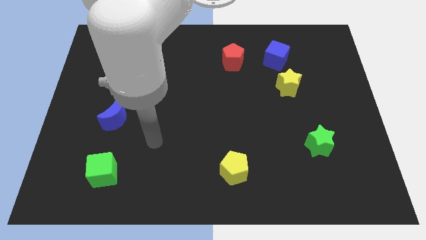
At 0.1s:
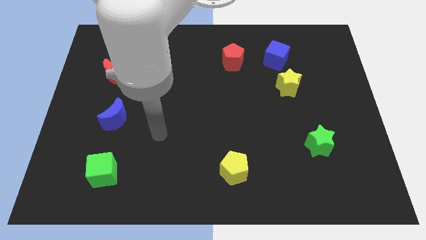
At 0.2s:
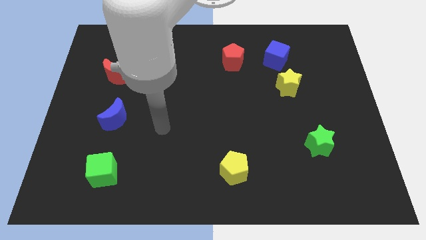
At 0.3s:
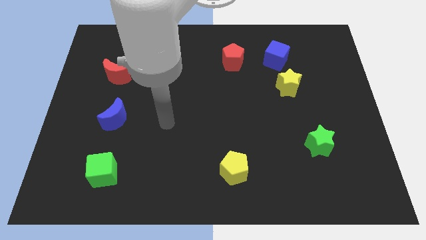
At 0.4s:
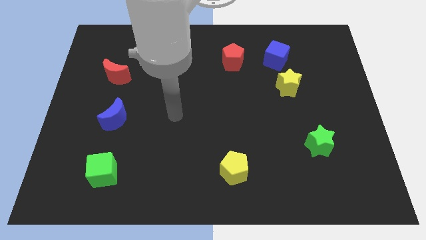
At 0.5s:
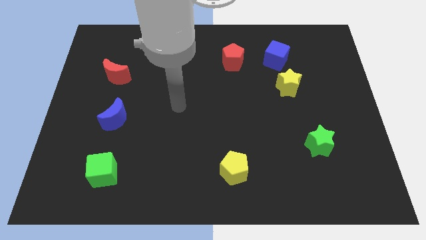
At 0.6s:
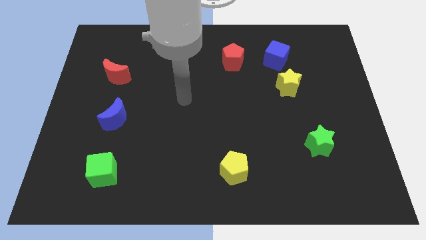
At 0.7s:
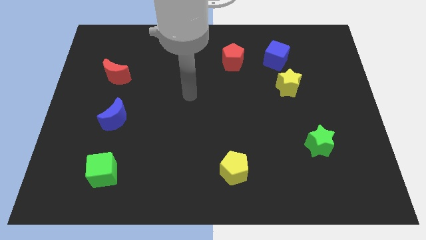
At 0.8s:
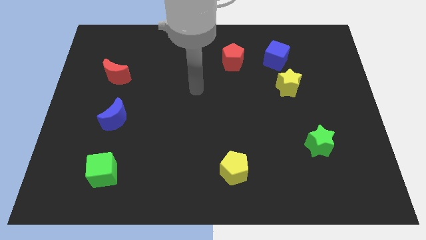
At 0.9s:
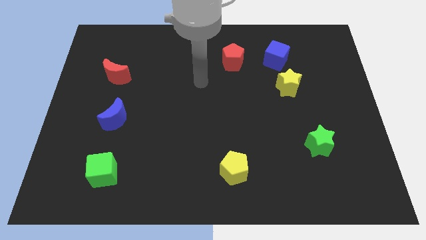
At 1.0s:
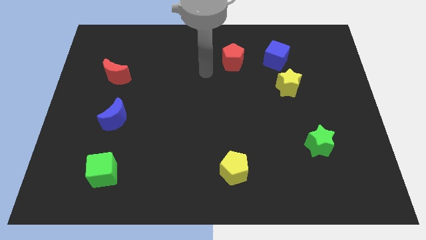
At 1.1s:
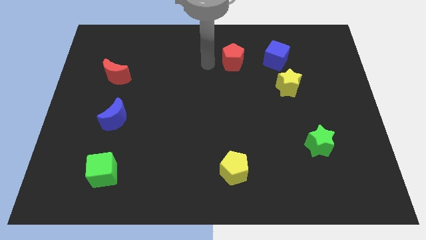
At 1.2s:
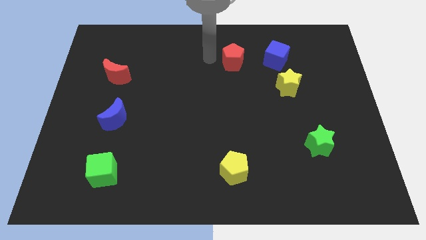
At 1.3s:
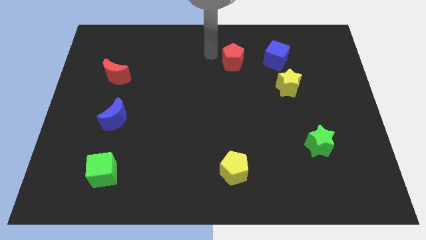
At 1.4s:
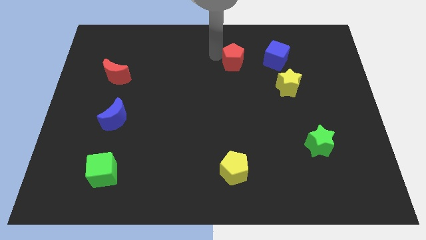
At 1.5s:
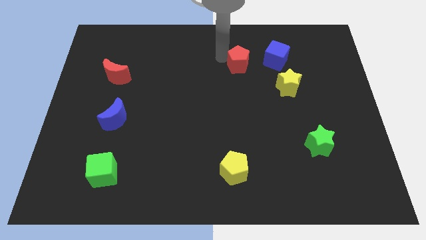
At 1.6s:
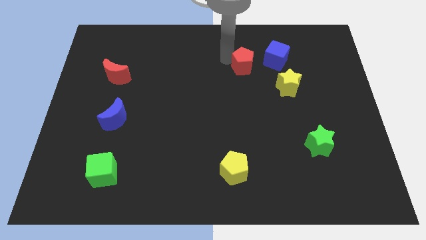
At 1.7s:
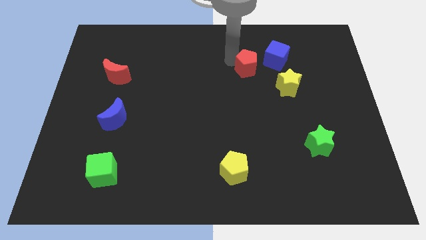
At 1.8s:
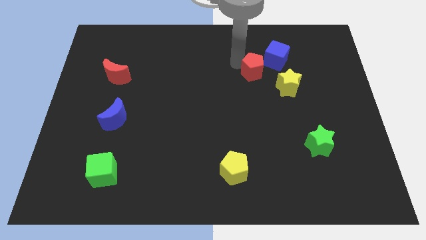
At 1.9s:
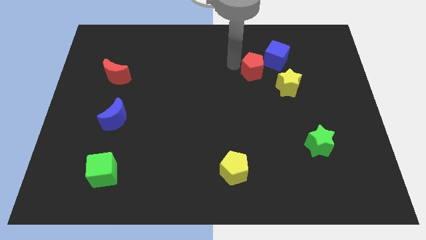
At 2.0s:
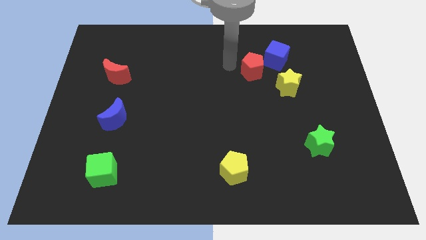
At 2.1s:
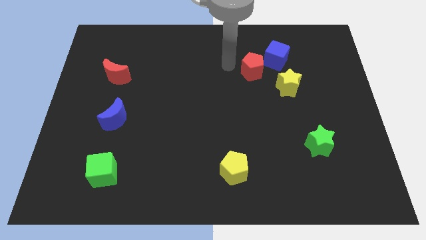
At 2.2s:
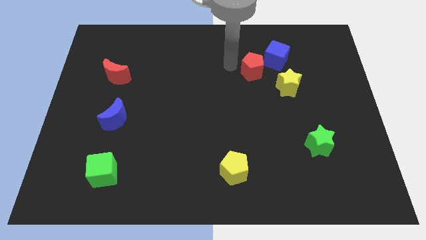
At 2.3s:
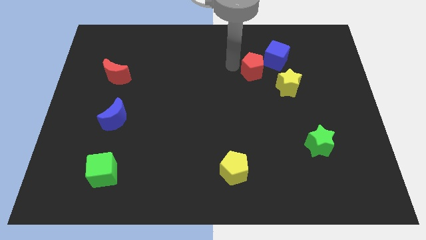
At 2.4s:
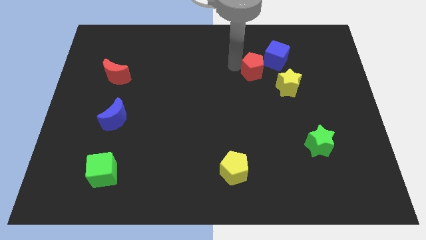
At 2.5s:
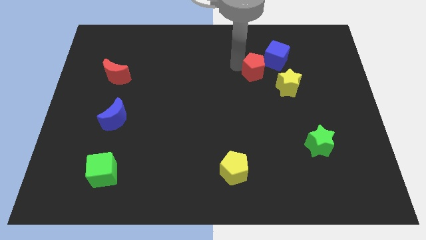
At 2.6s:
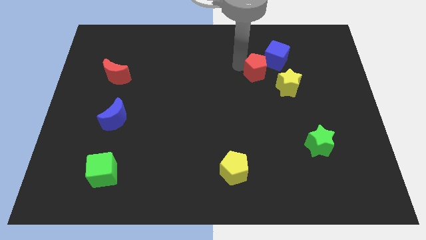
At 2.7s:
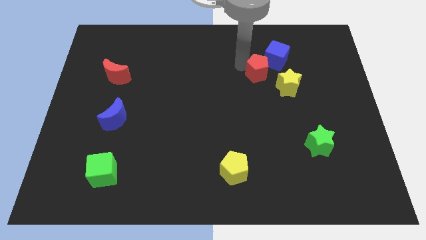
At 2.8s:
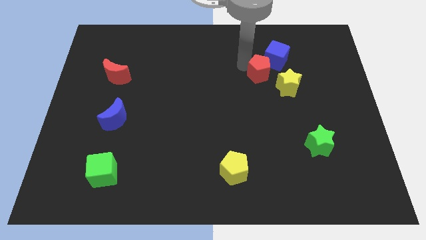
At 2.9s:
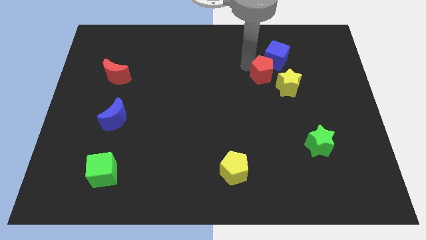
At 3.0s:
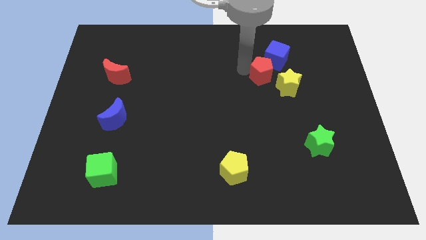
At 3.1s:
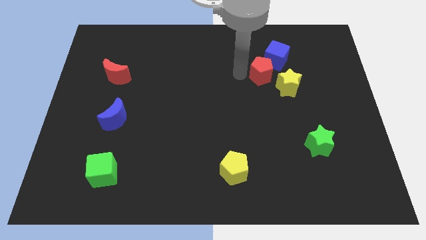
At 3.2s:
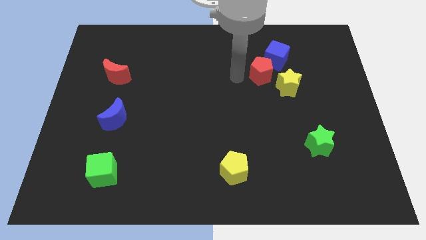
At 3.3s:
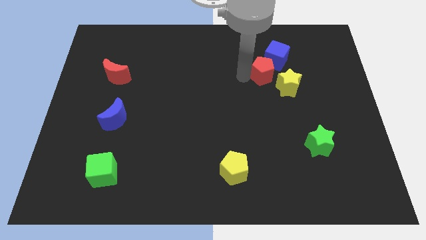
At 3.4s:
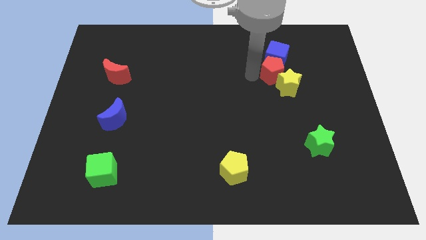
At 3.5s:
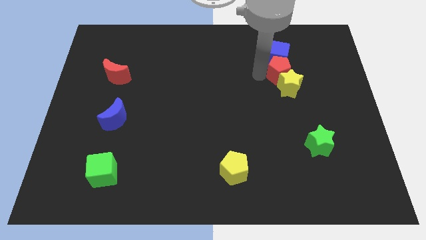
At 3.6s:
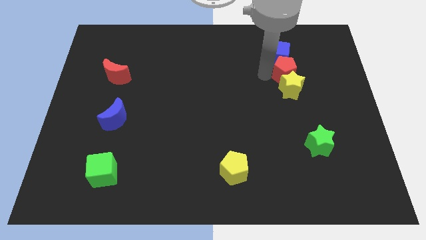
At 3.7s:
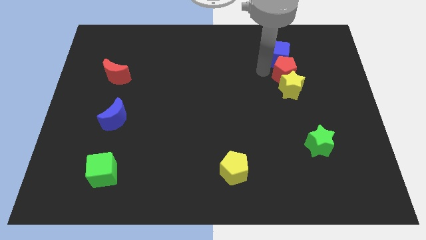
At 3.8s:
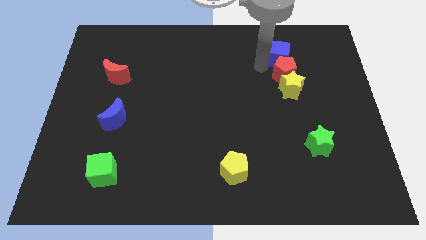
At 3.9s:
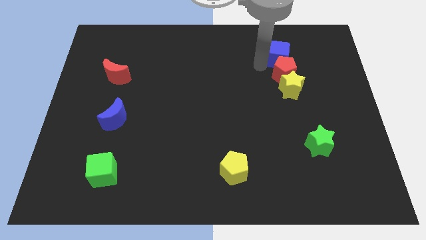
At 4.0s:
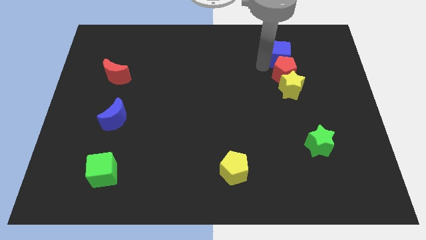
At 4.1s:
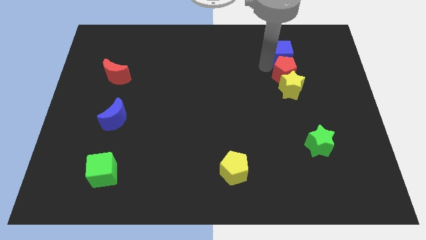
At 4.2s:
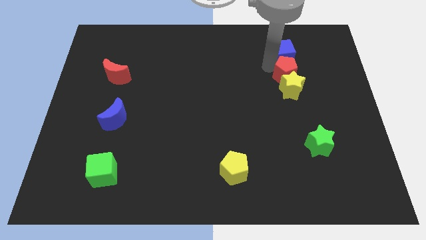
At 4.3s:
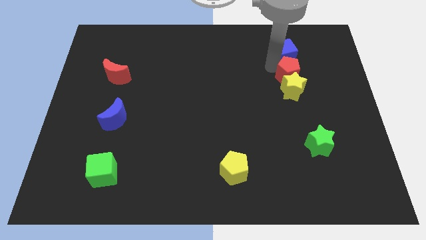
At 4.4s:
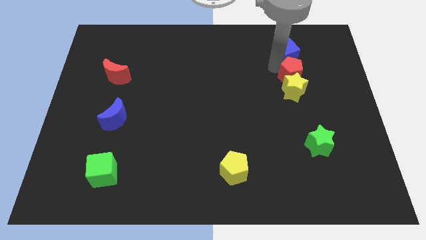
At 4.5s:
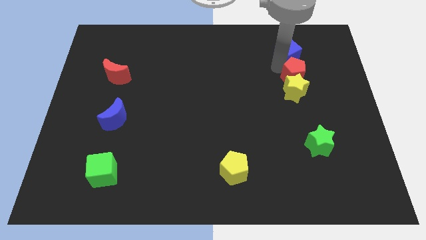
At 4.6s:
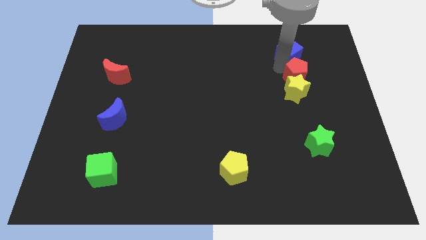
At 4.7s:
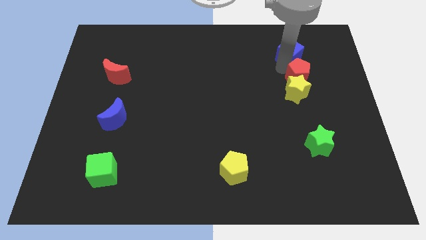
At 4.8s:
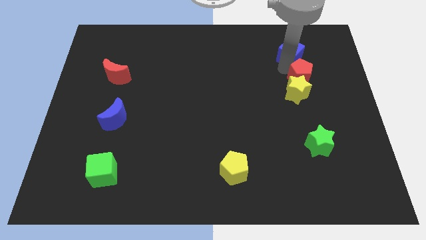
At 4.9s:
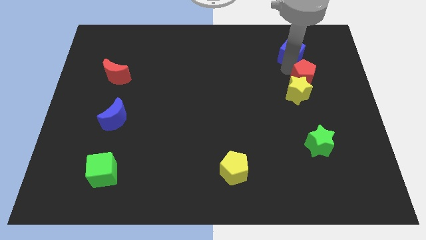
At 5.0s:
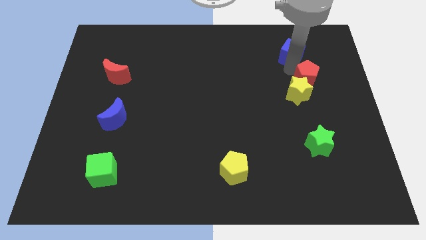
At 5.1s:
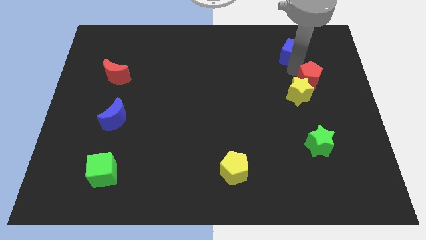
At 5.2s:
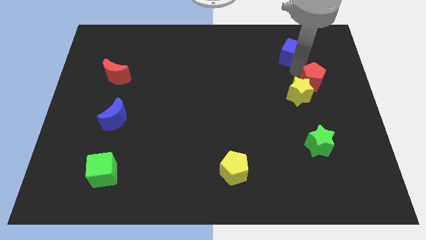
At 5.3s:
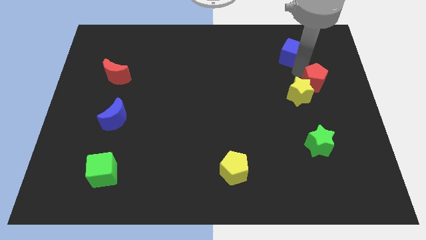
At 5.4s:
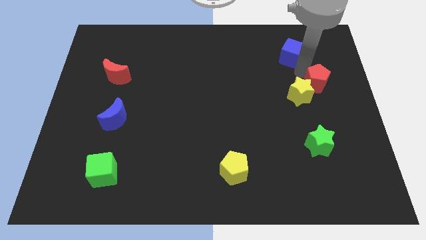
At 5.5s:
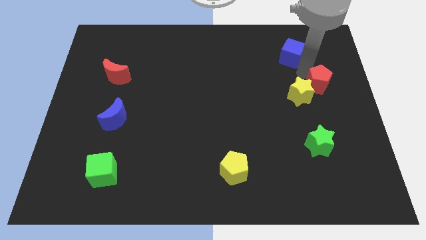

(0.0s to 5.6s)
push the red pentagon to the right side
